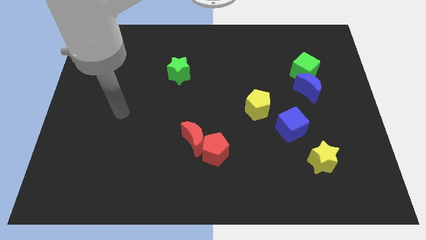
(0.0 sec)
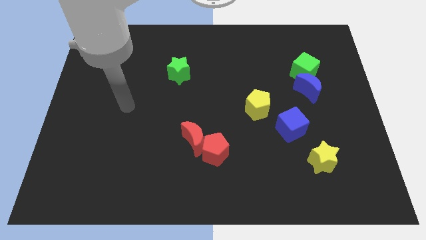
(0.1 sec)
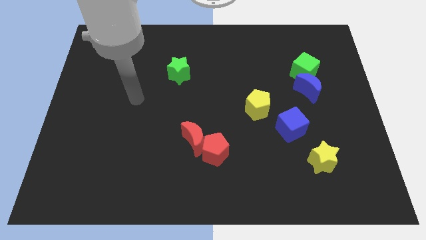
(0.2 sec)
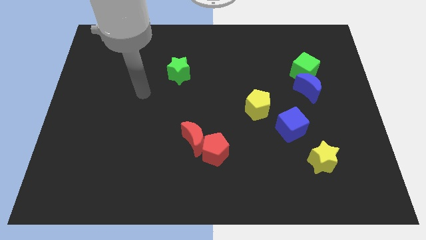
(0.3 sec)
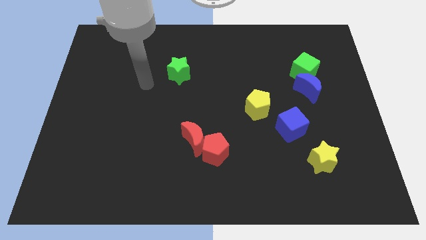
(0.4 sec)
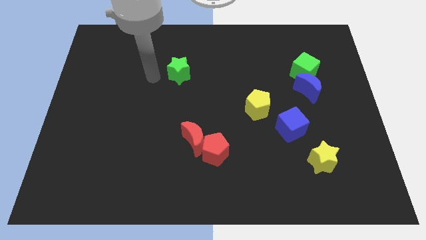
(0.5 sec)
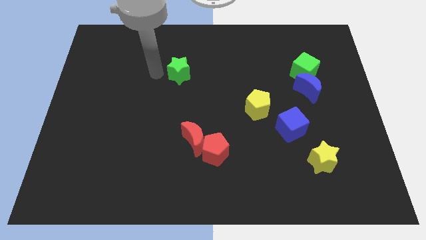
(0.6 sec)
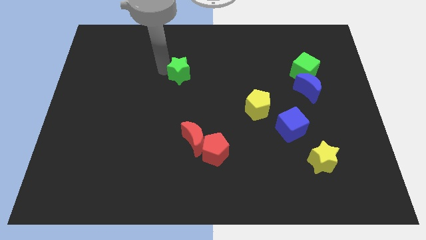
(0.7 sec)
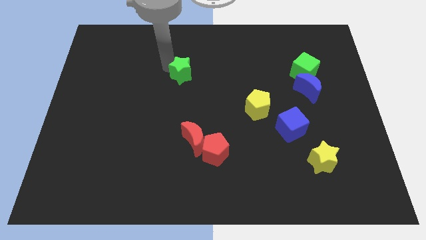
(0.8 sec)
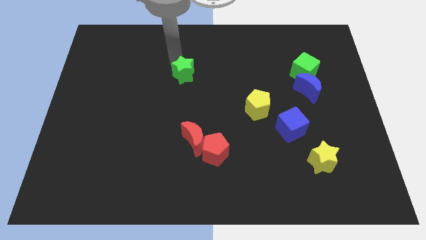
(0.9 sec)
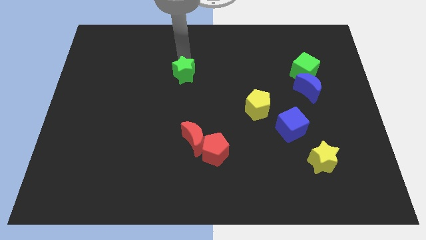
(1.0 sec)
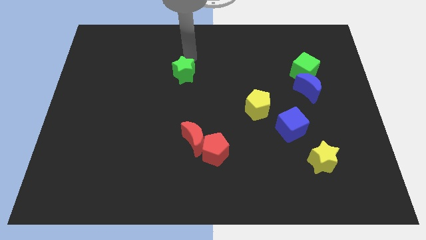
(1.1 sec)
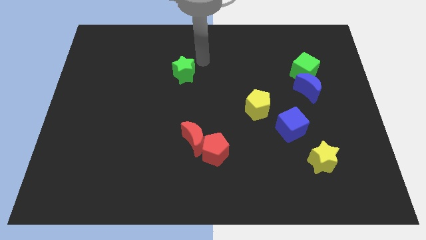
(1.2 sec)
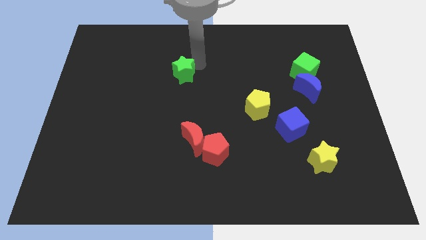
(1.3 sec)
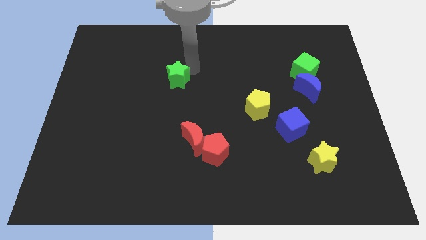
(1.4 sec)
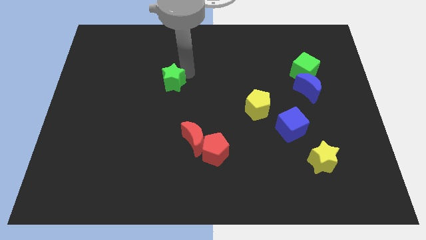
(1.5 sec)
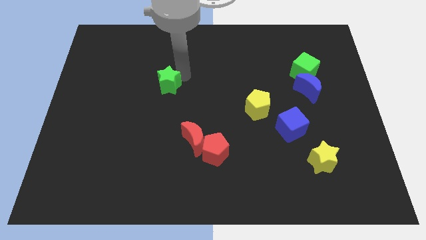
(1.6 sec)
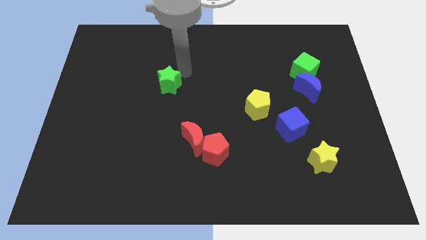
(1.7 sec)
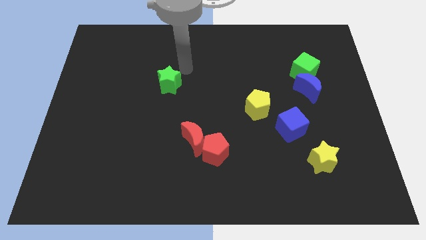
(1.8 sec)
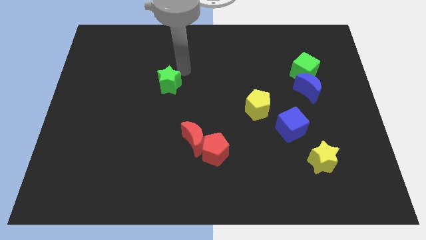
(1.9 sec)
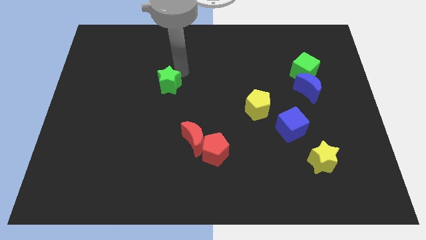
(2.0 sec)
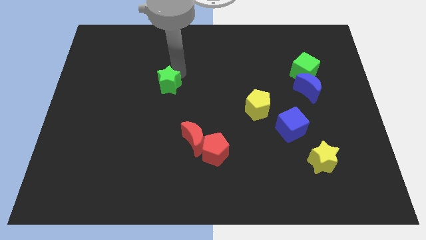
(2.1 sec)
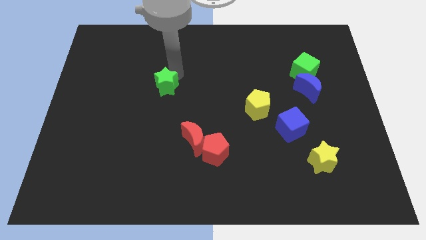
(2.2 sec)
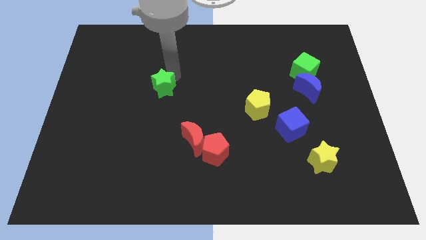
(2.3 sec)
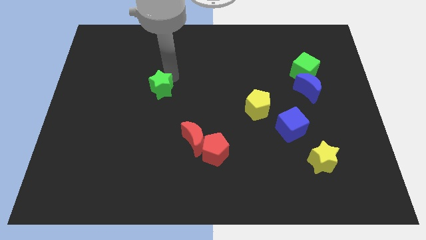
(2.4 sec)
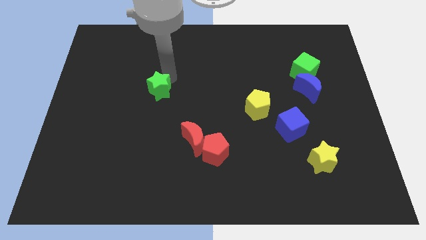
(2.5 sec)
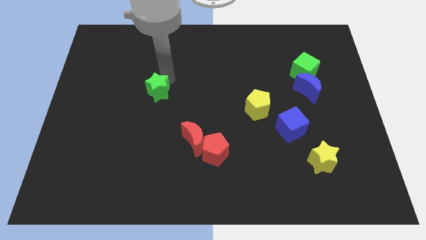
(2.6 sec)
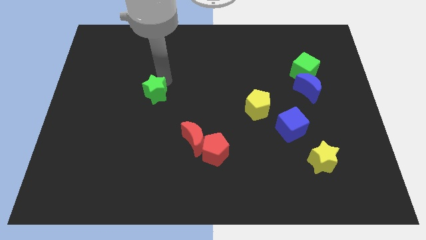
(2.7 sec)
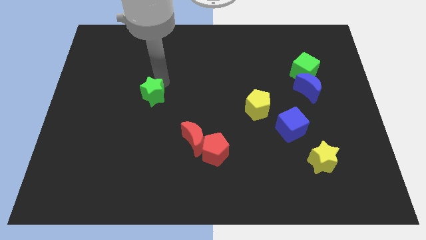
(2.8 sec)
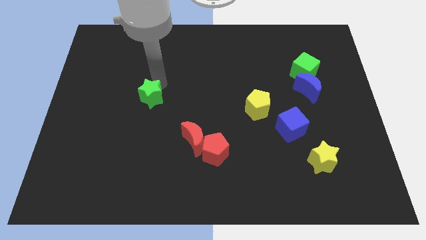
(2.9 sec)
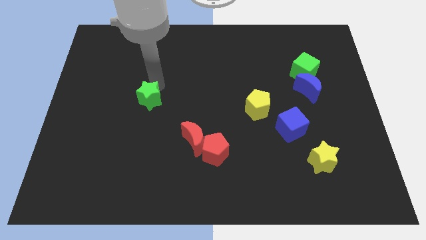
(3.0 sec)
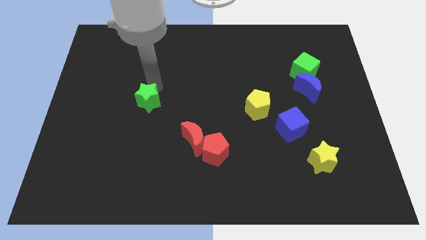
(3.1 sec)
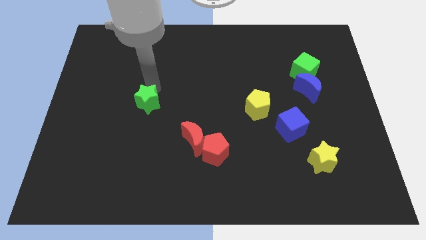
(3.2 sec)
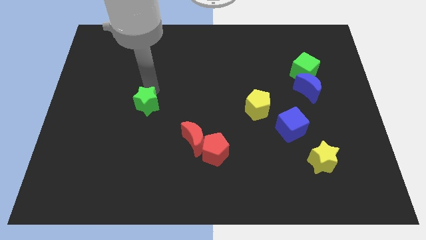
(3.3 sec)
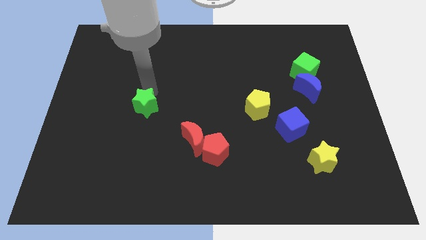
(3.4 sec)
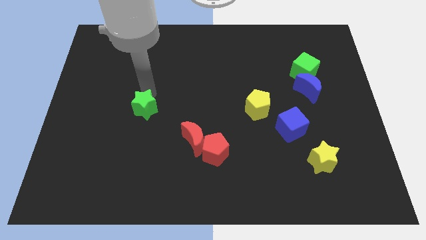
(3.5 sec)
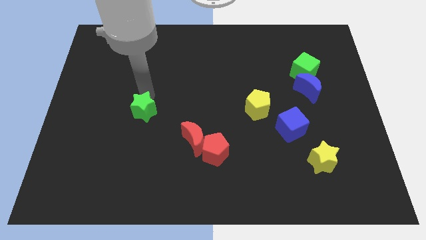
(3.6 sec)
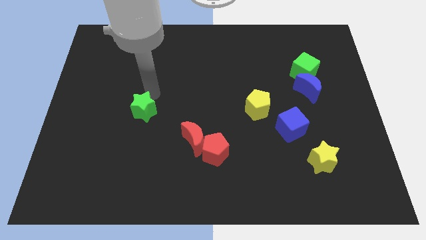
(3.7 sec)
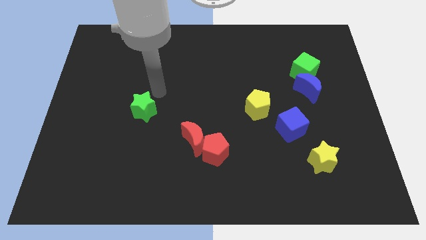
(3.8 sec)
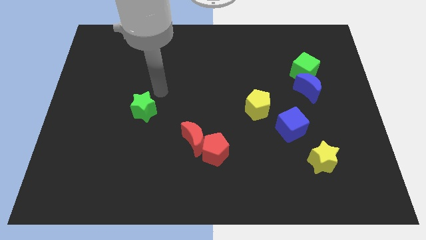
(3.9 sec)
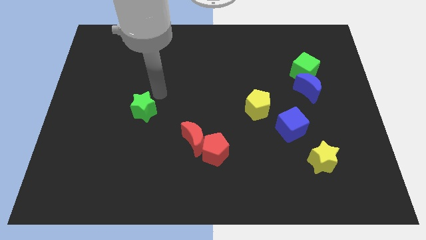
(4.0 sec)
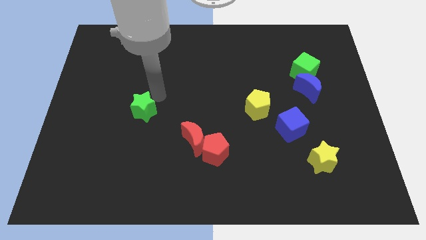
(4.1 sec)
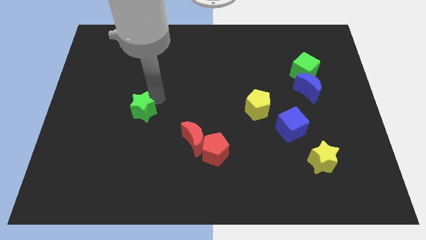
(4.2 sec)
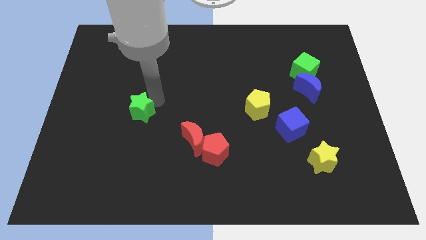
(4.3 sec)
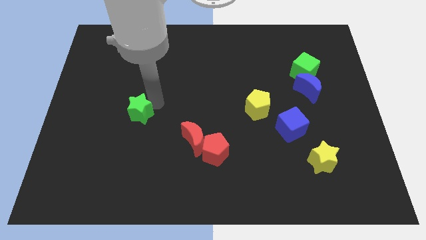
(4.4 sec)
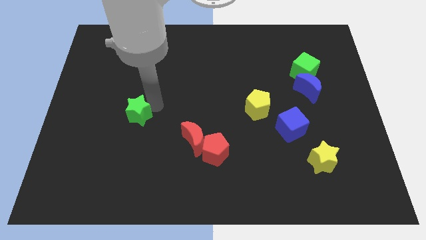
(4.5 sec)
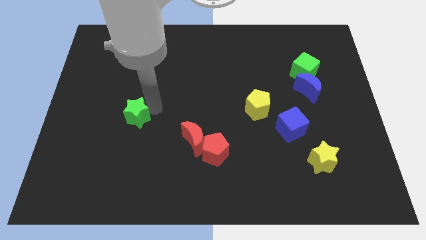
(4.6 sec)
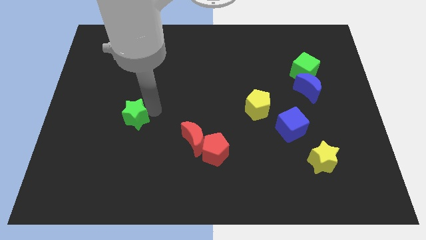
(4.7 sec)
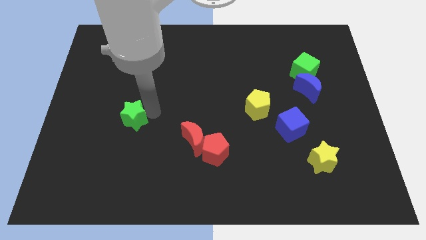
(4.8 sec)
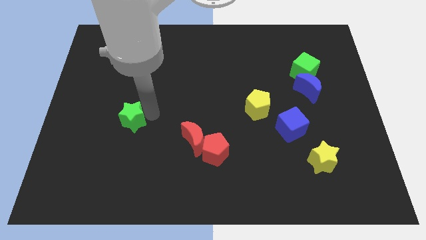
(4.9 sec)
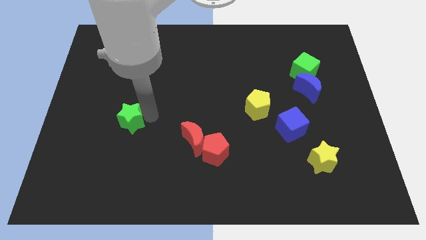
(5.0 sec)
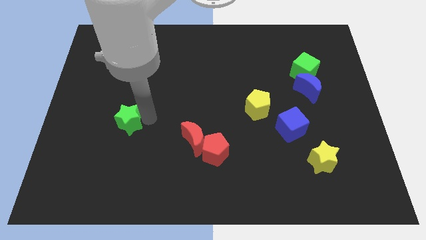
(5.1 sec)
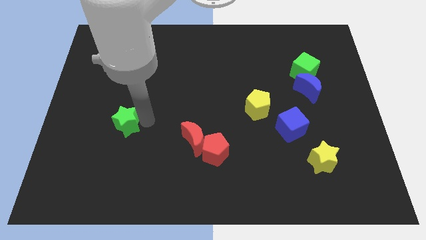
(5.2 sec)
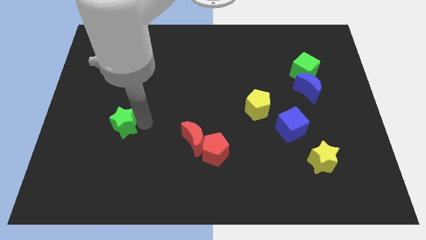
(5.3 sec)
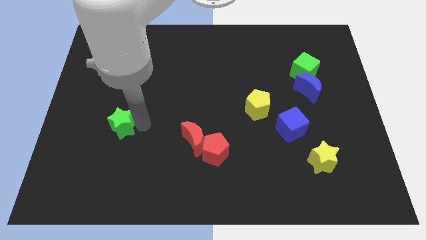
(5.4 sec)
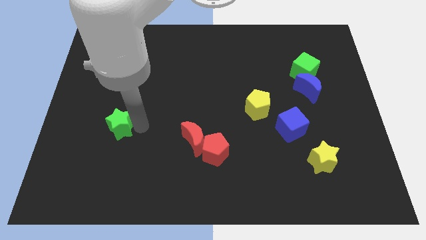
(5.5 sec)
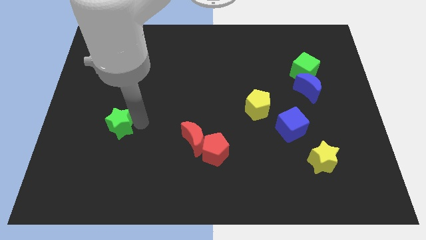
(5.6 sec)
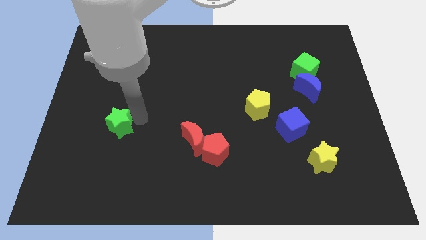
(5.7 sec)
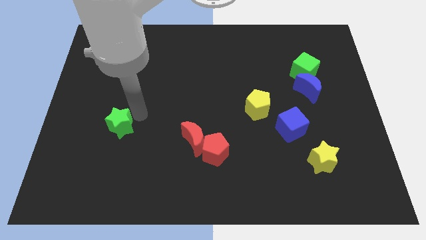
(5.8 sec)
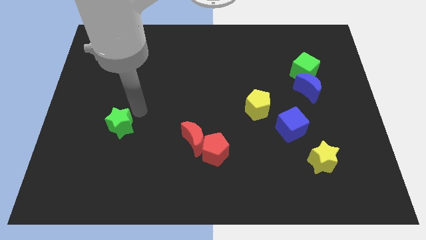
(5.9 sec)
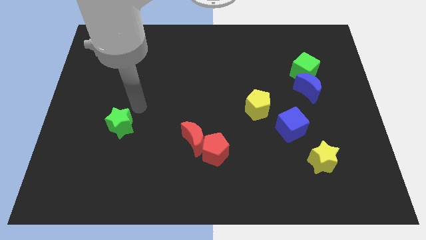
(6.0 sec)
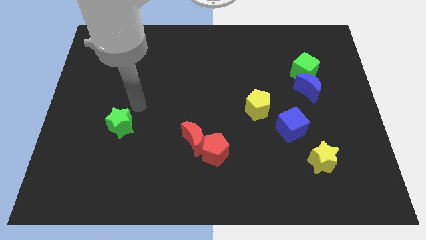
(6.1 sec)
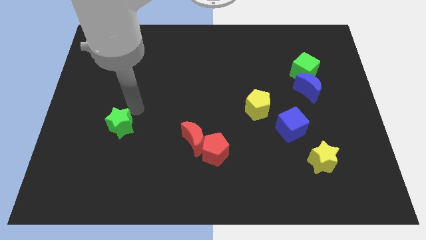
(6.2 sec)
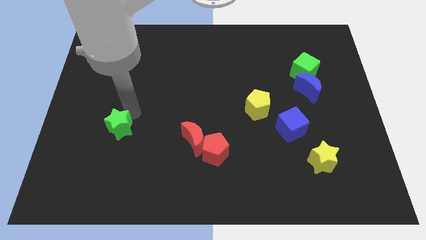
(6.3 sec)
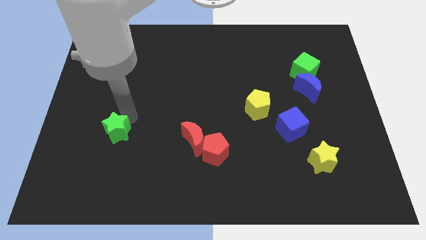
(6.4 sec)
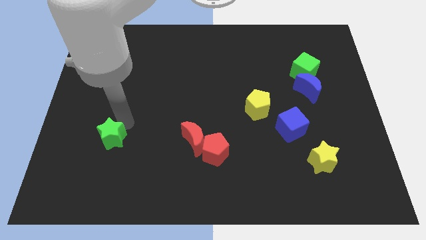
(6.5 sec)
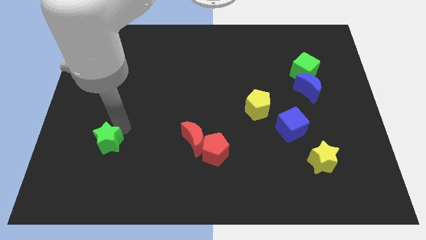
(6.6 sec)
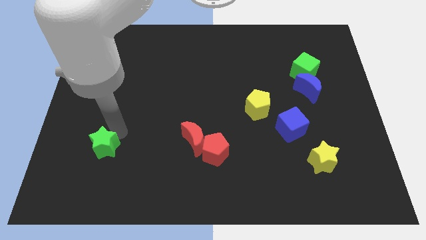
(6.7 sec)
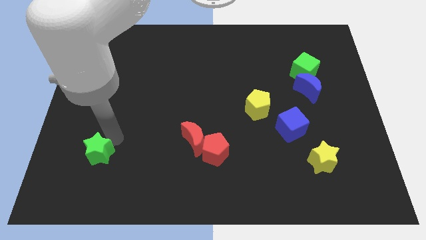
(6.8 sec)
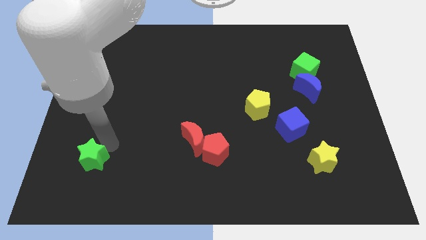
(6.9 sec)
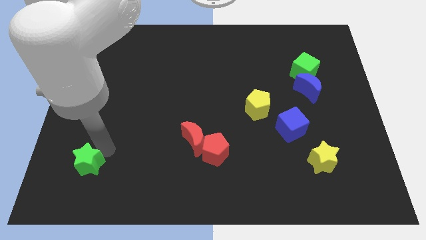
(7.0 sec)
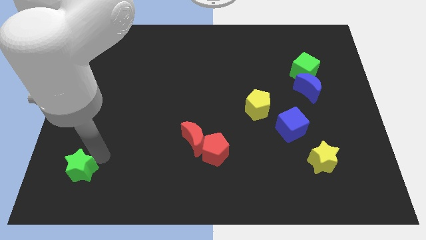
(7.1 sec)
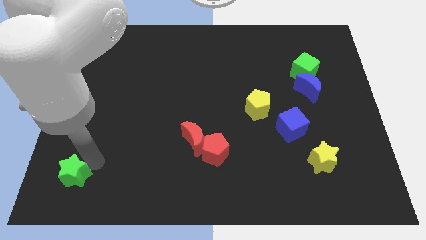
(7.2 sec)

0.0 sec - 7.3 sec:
slide the green star to the lower left corner

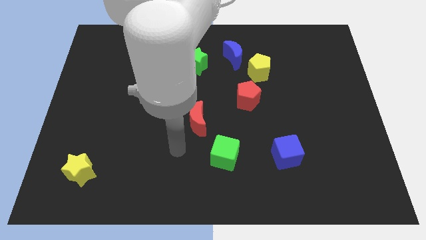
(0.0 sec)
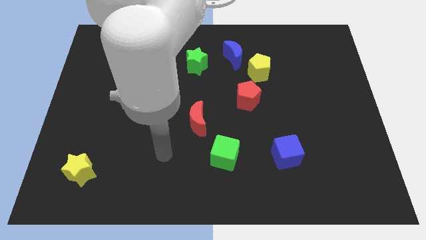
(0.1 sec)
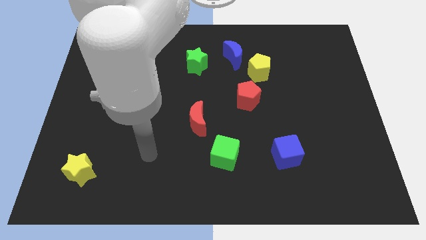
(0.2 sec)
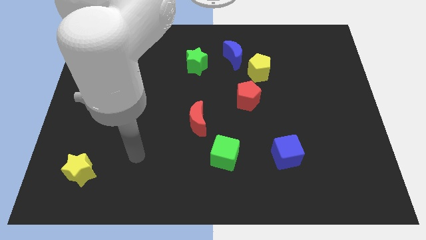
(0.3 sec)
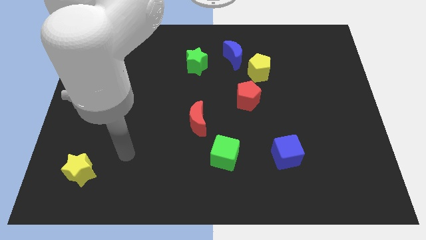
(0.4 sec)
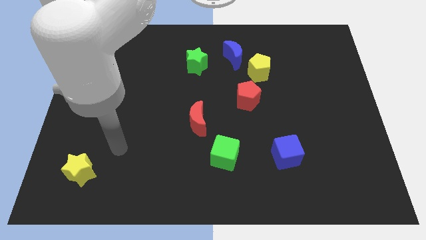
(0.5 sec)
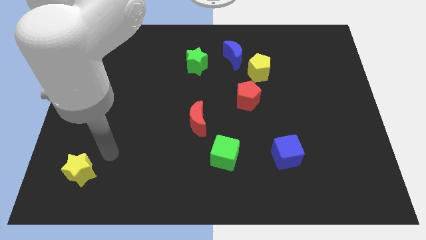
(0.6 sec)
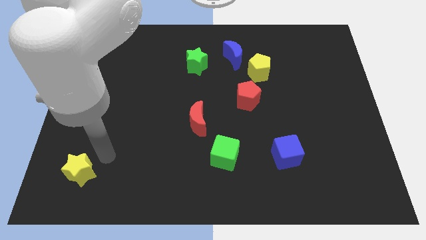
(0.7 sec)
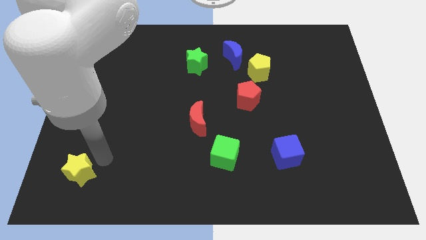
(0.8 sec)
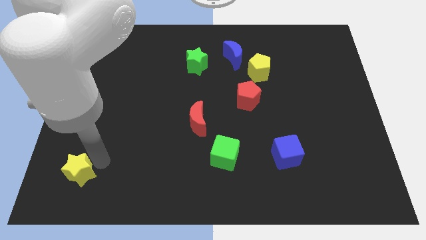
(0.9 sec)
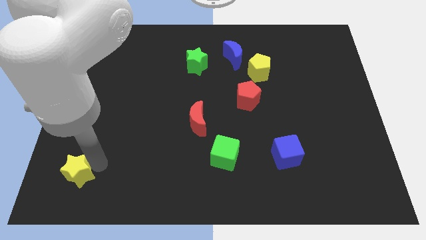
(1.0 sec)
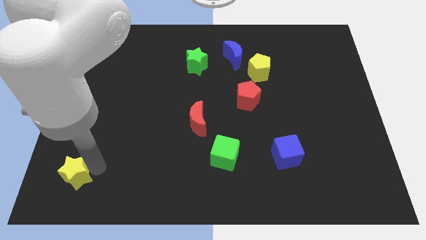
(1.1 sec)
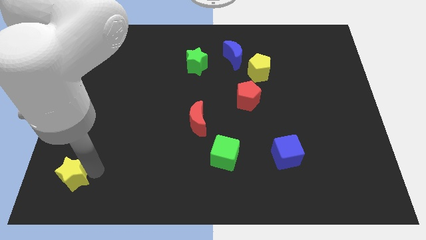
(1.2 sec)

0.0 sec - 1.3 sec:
slide the yellow star to the lower left corner
